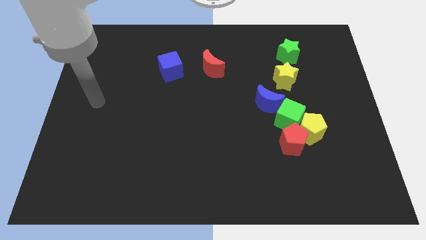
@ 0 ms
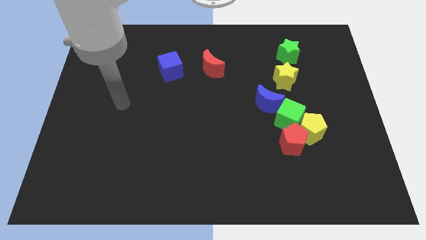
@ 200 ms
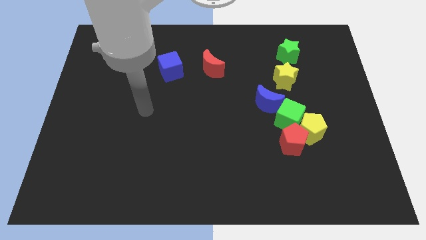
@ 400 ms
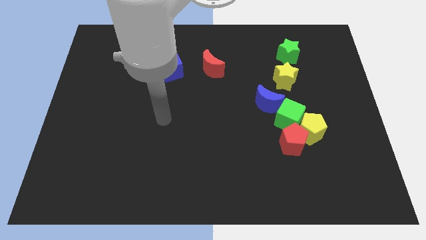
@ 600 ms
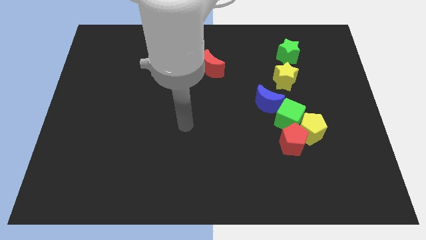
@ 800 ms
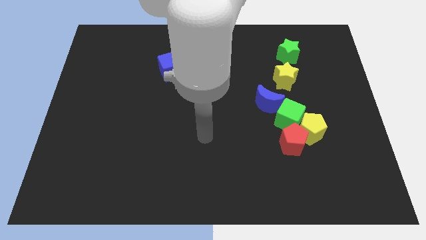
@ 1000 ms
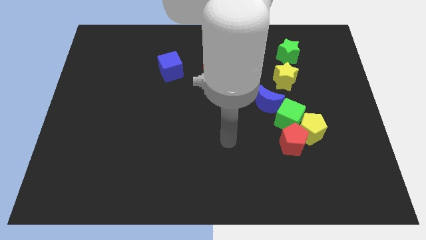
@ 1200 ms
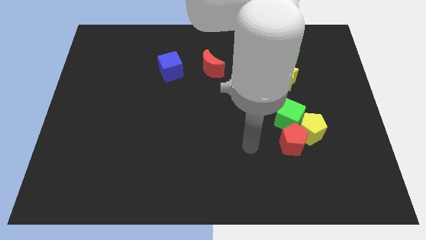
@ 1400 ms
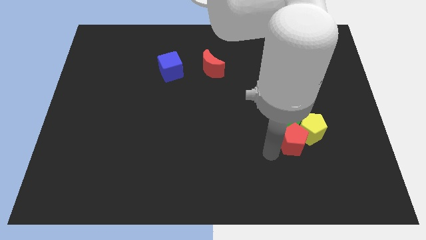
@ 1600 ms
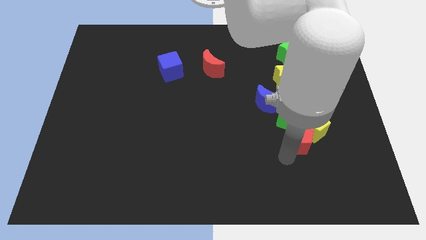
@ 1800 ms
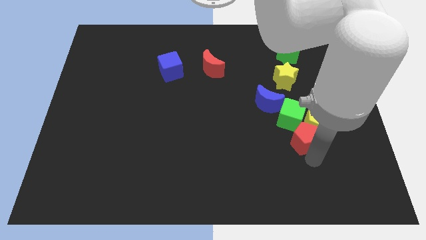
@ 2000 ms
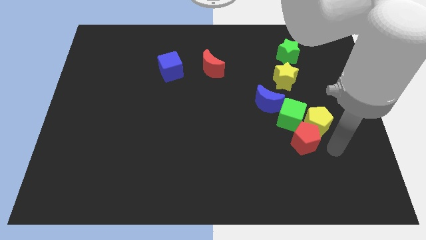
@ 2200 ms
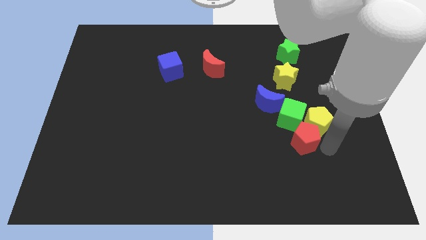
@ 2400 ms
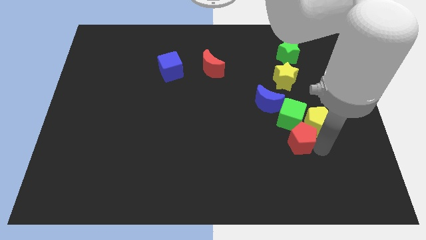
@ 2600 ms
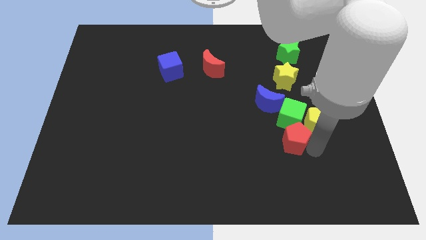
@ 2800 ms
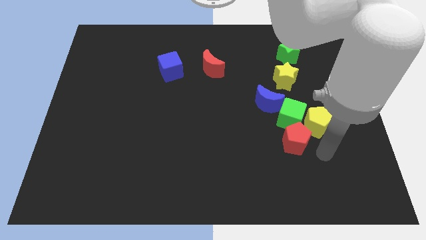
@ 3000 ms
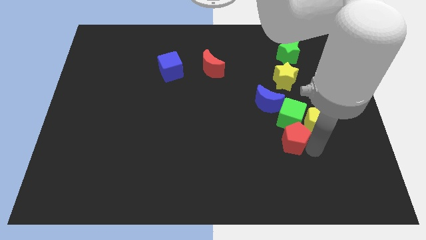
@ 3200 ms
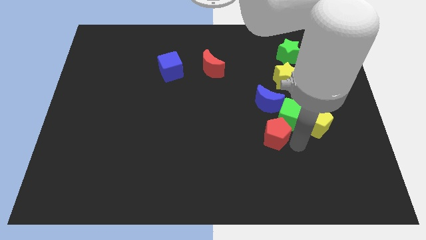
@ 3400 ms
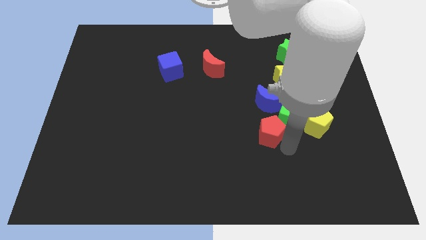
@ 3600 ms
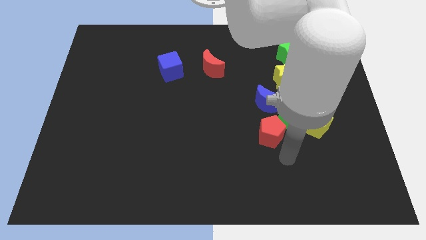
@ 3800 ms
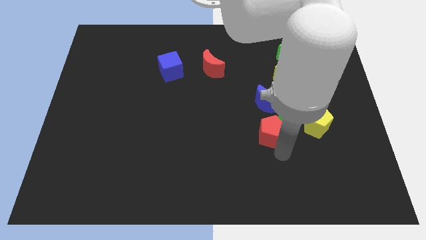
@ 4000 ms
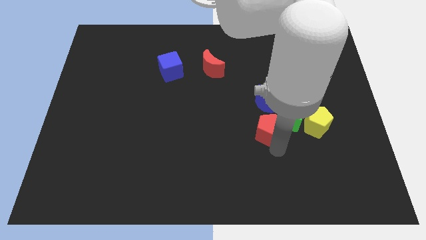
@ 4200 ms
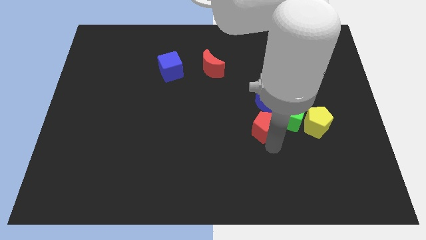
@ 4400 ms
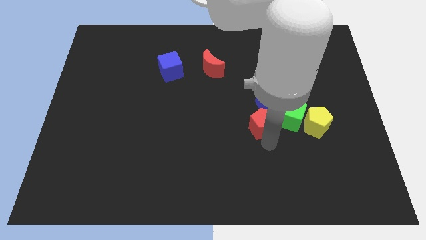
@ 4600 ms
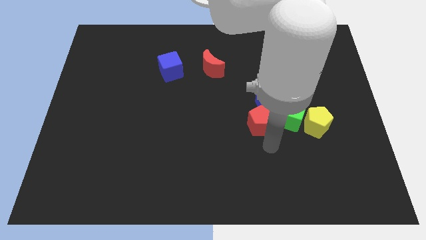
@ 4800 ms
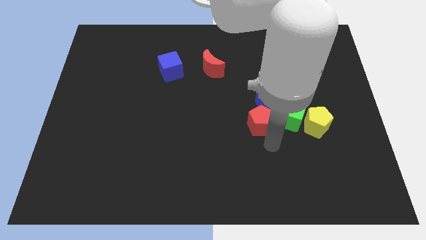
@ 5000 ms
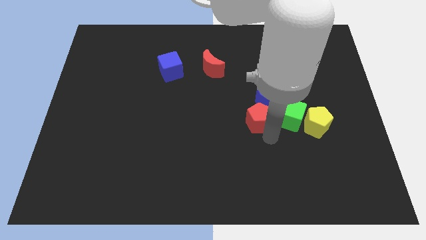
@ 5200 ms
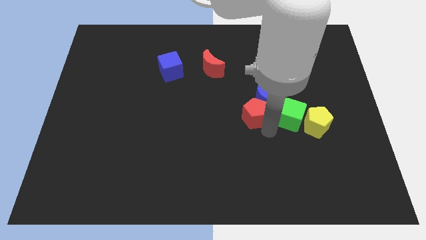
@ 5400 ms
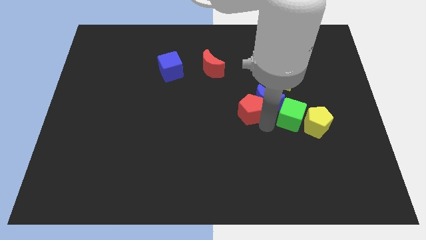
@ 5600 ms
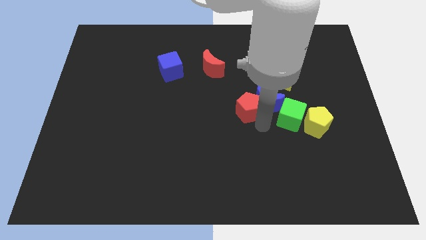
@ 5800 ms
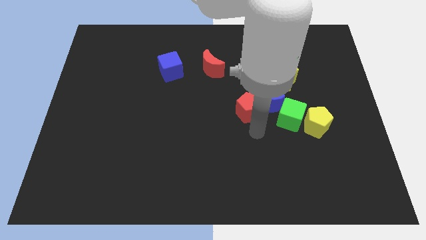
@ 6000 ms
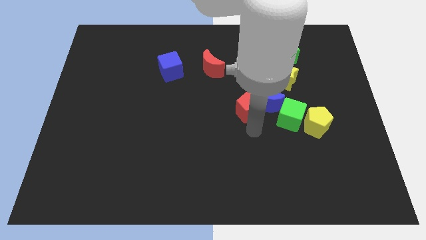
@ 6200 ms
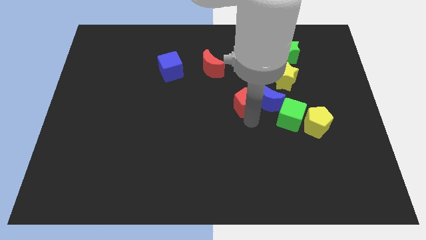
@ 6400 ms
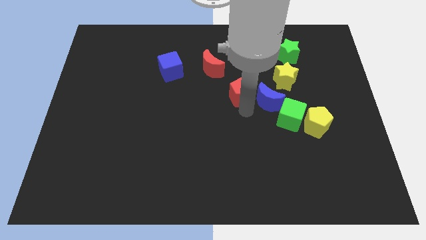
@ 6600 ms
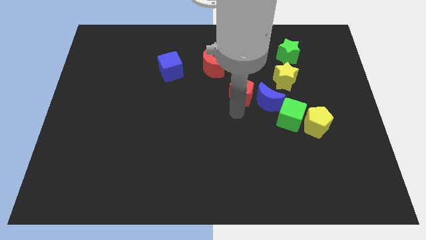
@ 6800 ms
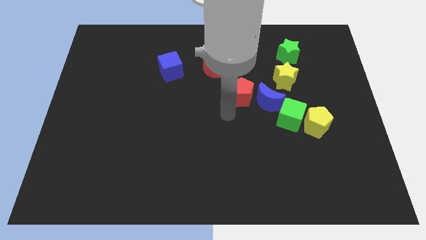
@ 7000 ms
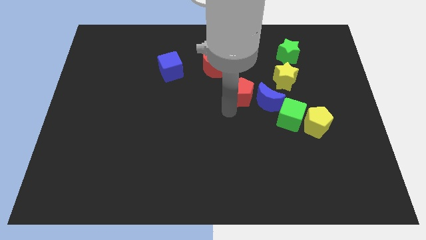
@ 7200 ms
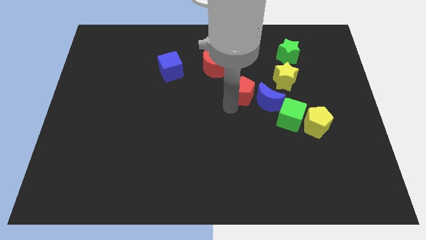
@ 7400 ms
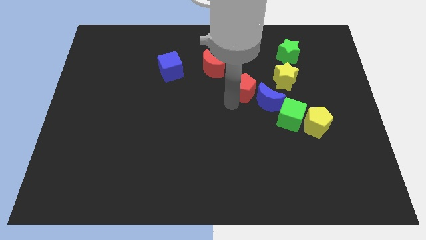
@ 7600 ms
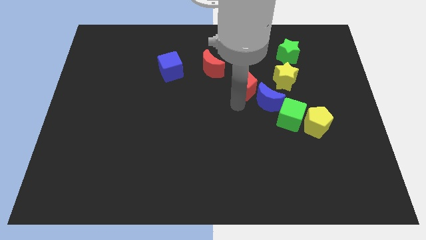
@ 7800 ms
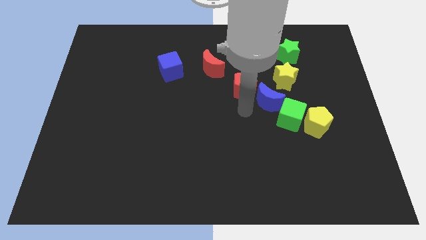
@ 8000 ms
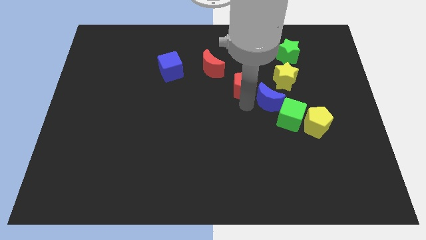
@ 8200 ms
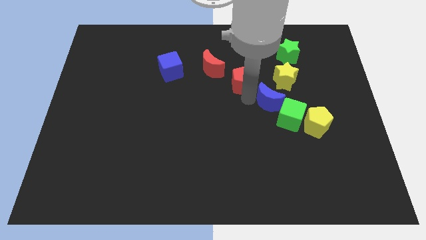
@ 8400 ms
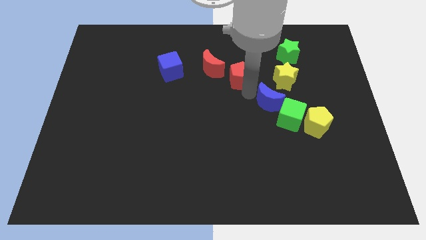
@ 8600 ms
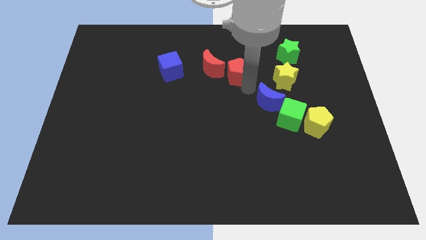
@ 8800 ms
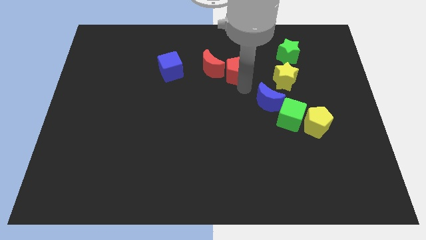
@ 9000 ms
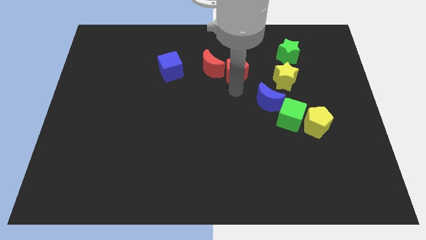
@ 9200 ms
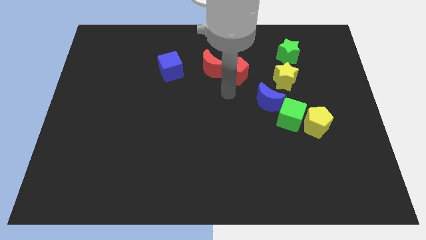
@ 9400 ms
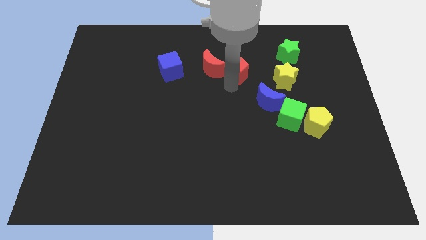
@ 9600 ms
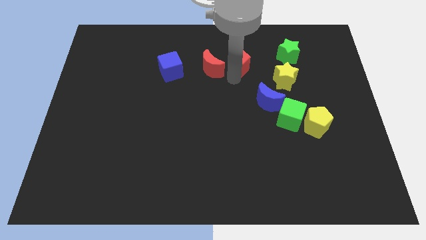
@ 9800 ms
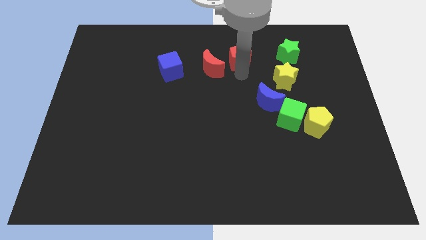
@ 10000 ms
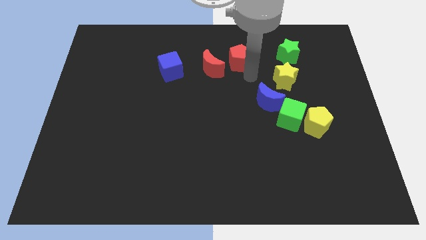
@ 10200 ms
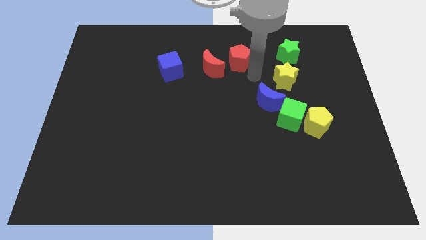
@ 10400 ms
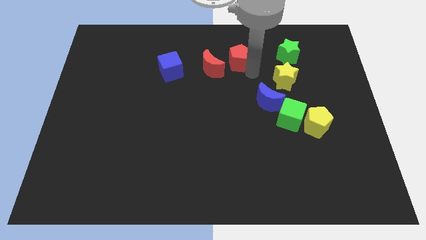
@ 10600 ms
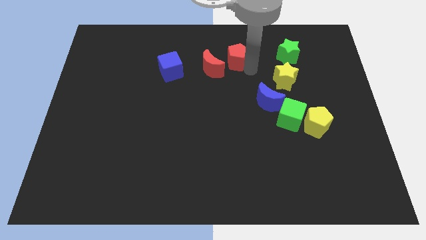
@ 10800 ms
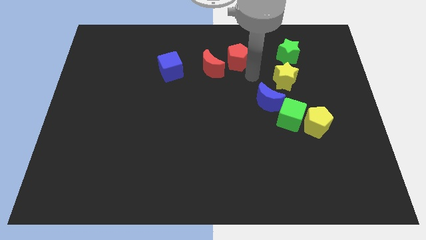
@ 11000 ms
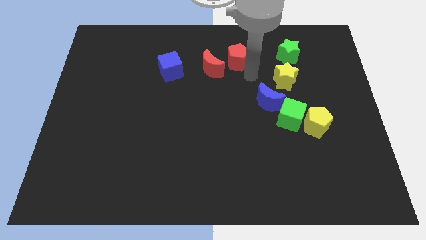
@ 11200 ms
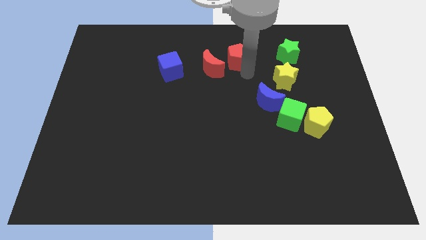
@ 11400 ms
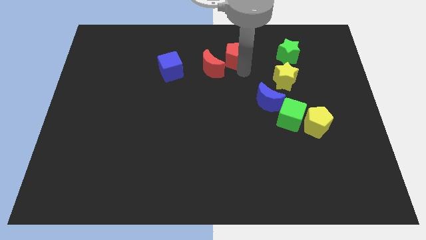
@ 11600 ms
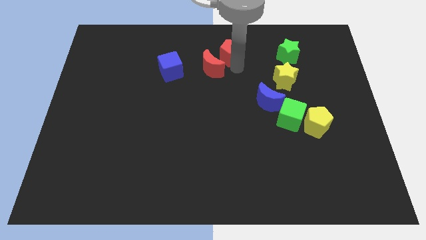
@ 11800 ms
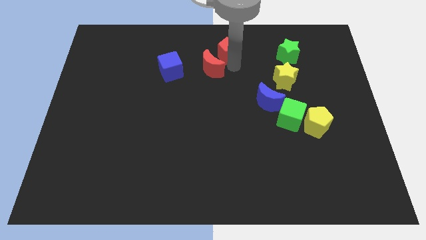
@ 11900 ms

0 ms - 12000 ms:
move the red pentagon to the top
